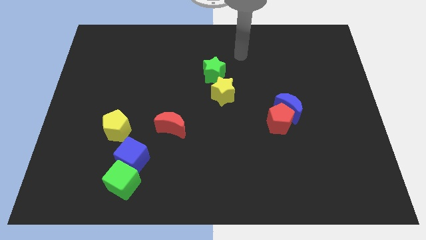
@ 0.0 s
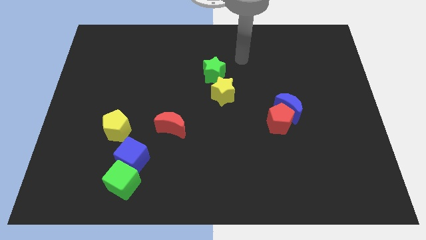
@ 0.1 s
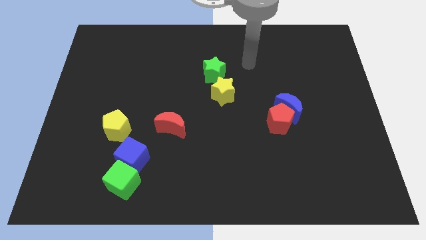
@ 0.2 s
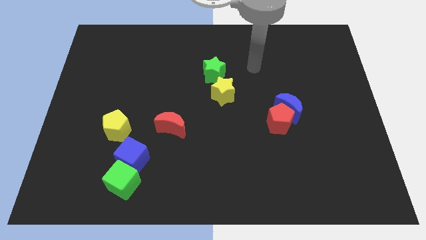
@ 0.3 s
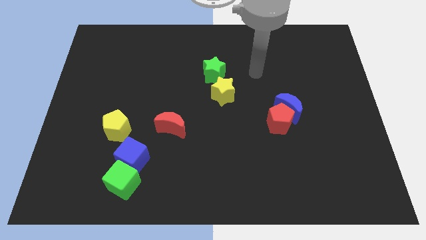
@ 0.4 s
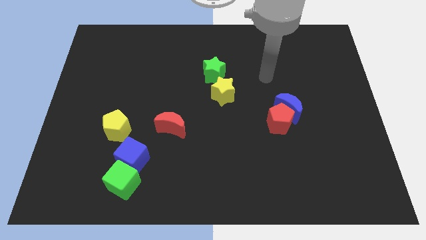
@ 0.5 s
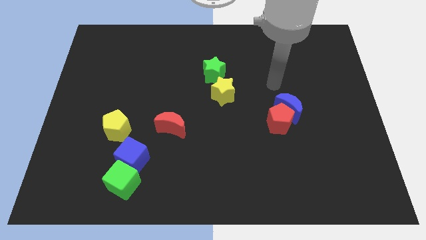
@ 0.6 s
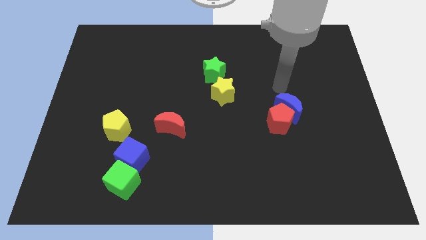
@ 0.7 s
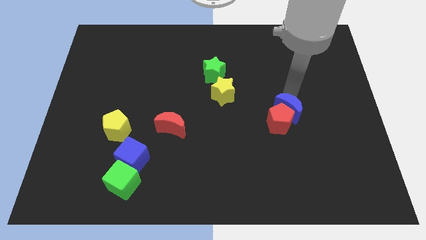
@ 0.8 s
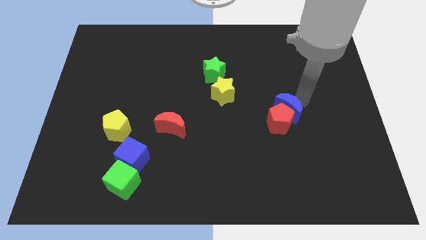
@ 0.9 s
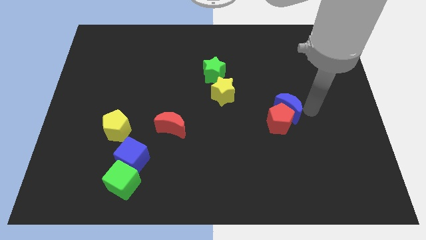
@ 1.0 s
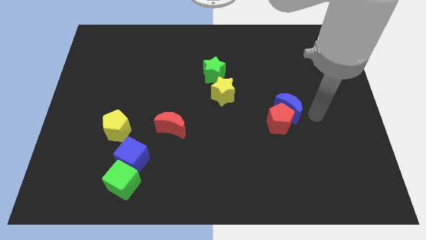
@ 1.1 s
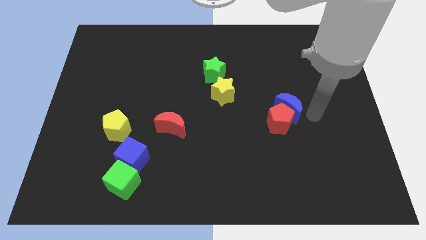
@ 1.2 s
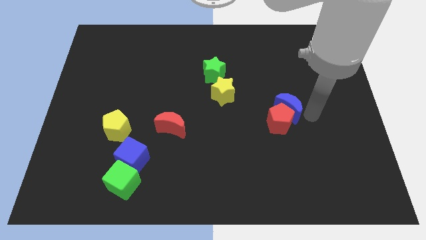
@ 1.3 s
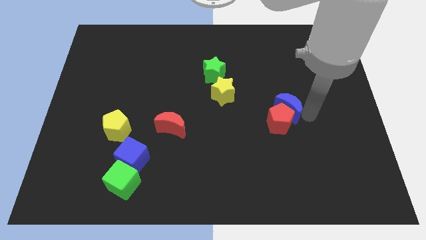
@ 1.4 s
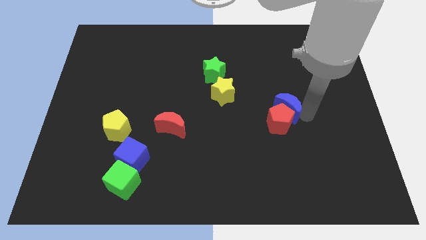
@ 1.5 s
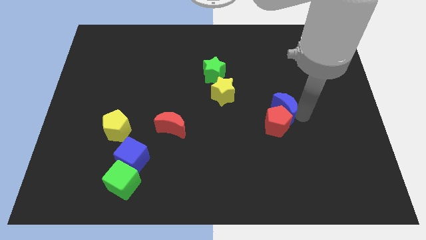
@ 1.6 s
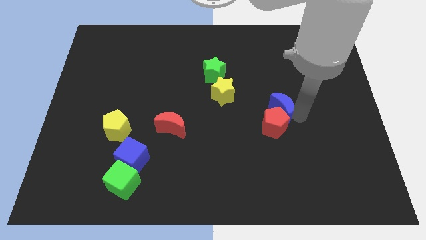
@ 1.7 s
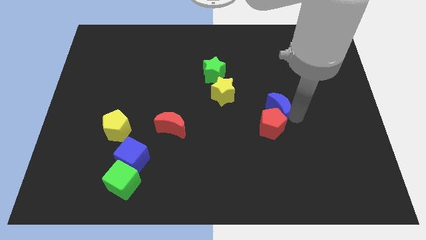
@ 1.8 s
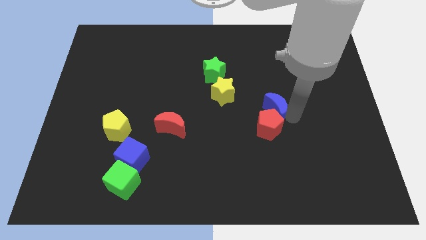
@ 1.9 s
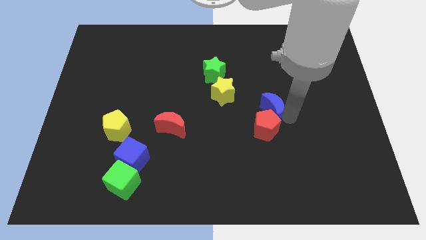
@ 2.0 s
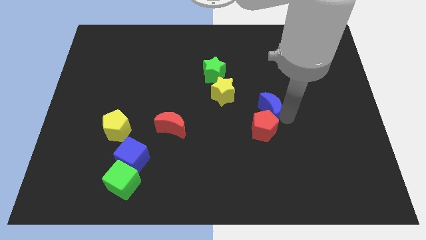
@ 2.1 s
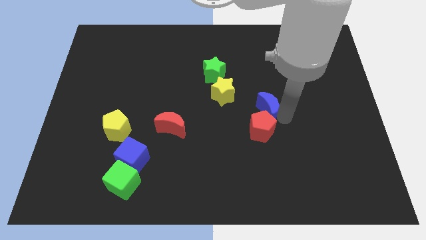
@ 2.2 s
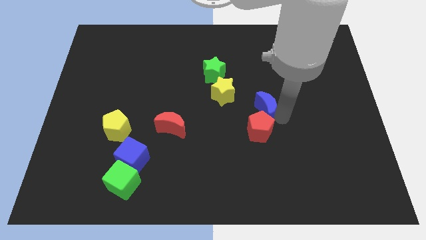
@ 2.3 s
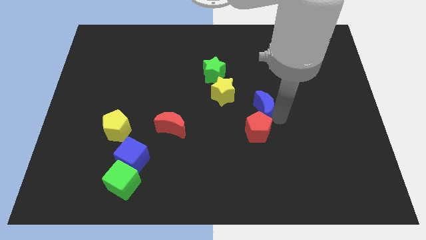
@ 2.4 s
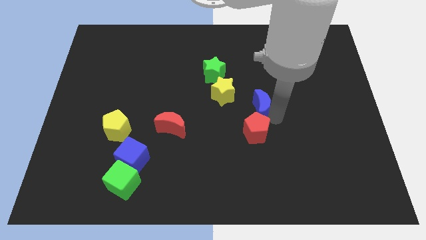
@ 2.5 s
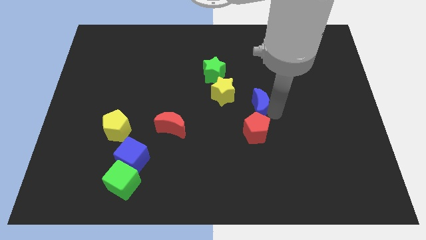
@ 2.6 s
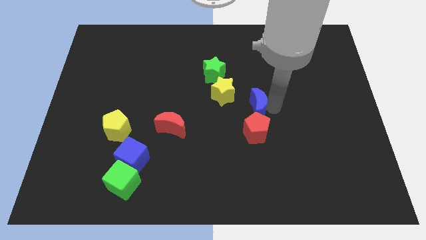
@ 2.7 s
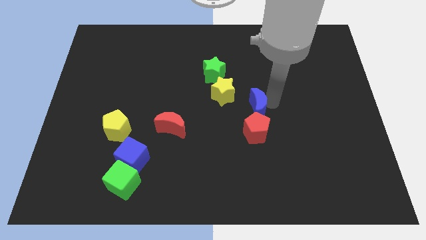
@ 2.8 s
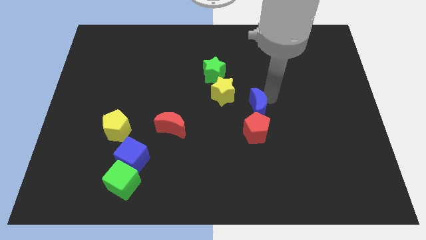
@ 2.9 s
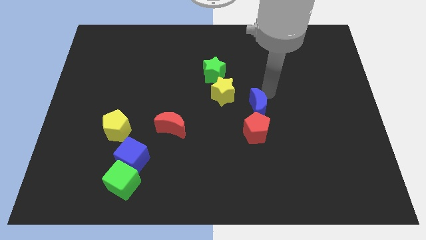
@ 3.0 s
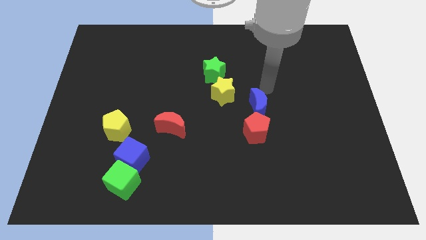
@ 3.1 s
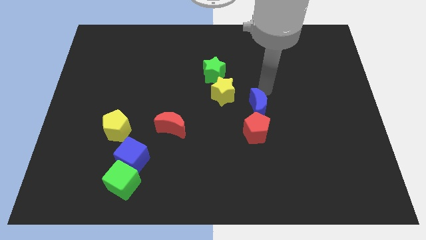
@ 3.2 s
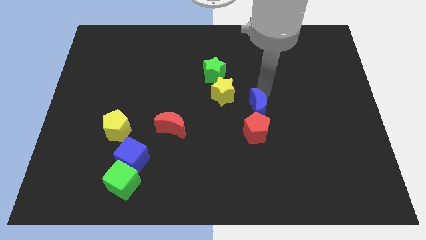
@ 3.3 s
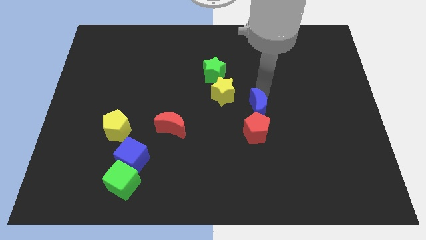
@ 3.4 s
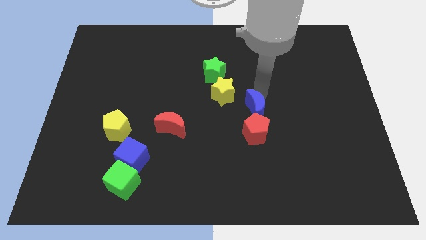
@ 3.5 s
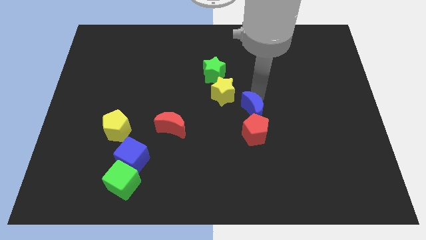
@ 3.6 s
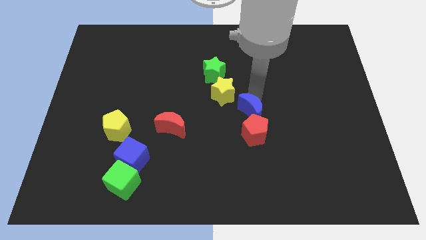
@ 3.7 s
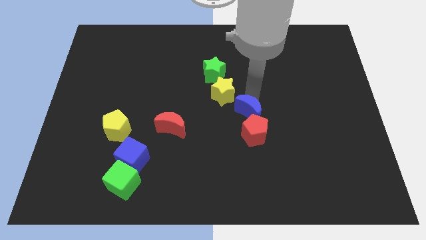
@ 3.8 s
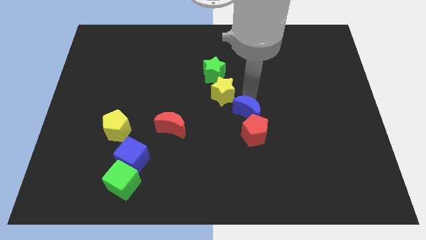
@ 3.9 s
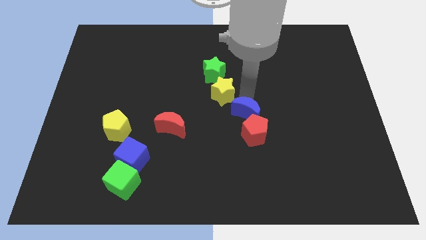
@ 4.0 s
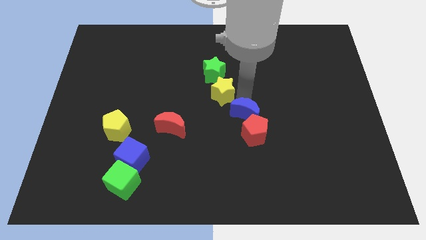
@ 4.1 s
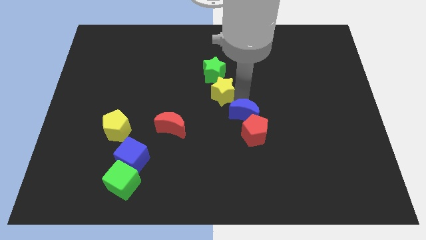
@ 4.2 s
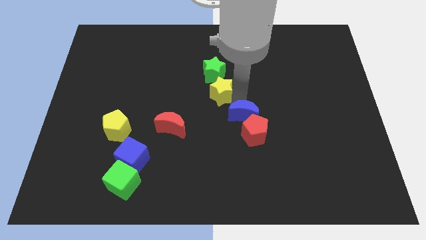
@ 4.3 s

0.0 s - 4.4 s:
slightly move the blue moon downwards and then left

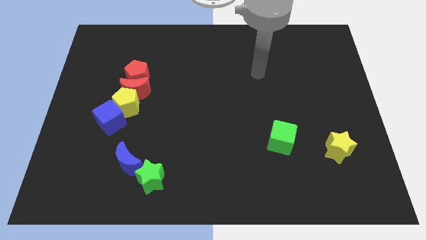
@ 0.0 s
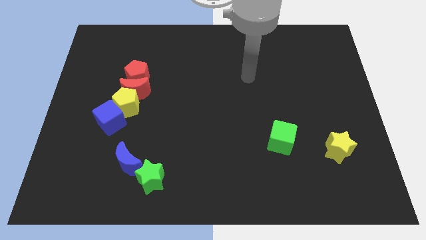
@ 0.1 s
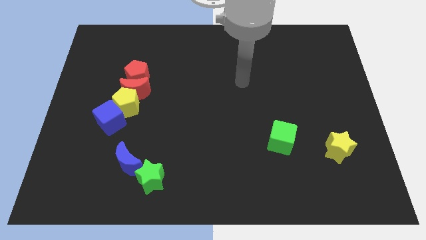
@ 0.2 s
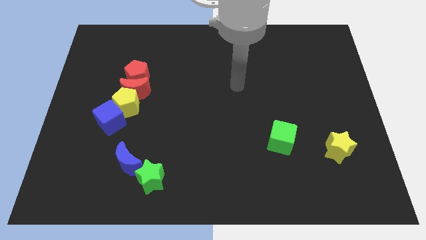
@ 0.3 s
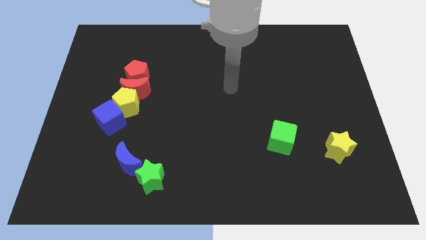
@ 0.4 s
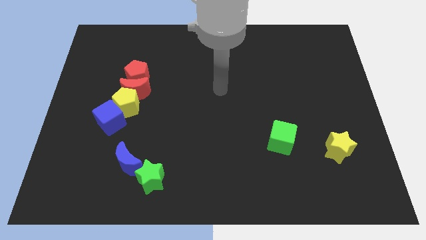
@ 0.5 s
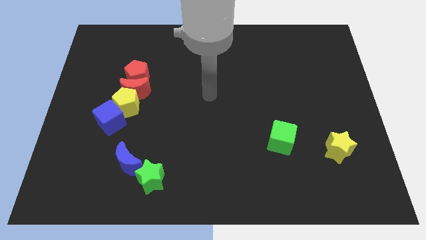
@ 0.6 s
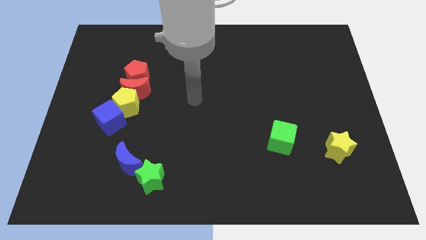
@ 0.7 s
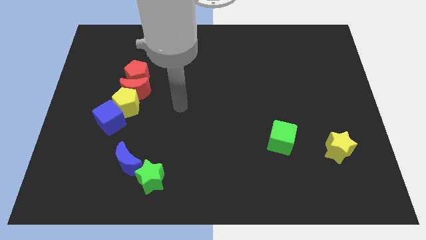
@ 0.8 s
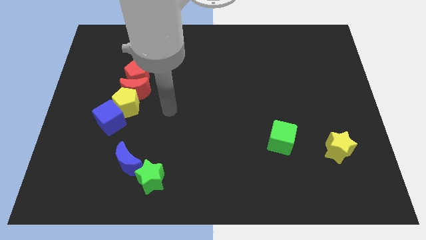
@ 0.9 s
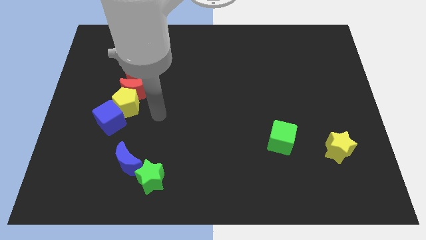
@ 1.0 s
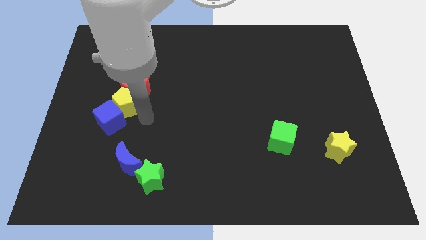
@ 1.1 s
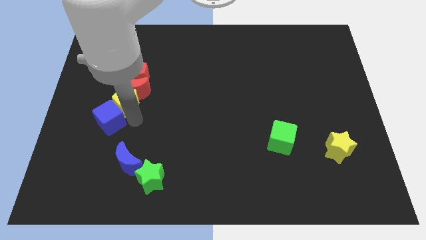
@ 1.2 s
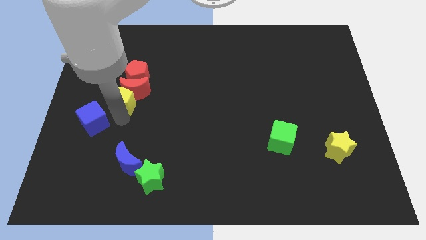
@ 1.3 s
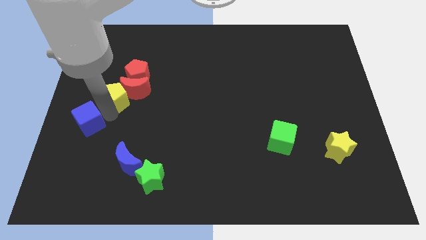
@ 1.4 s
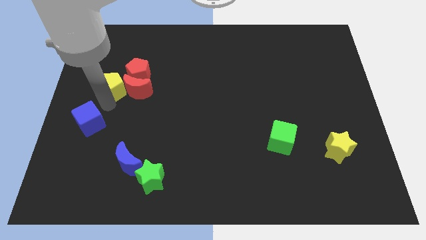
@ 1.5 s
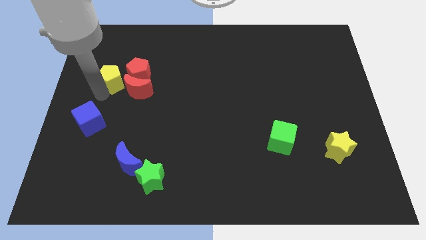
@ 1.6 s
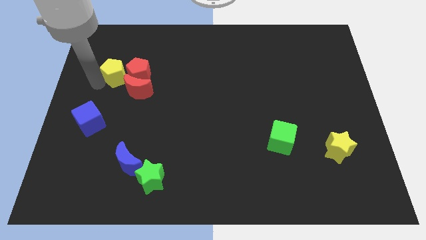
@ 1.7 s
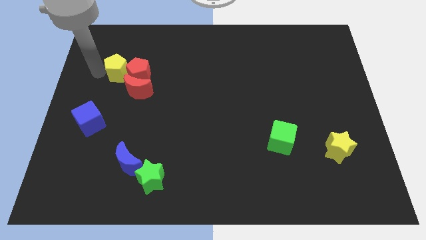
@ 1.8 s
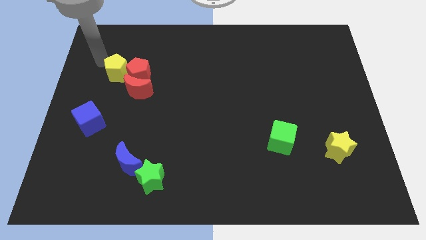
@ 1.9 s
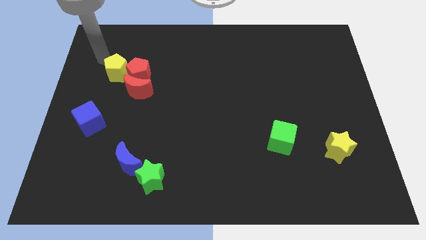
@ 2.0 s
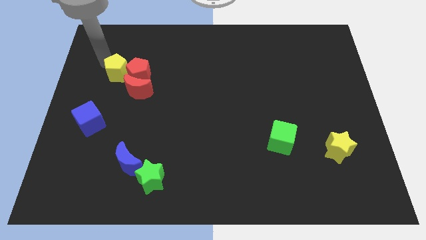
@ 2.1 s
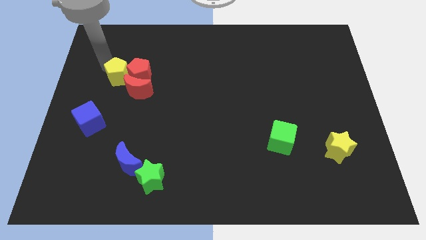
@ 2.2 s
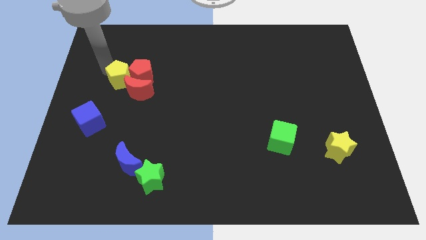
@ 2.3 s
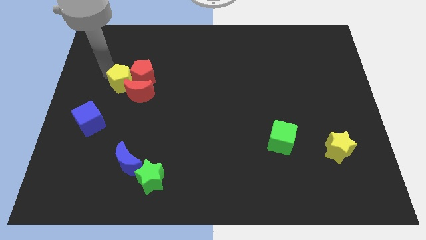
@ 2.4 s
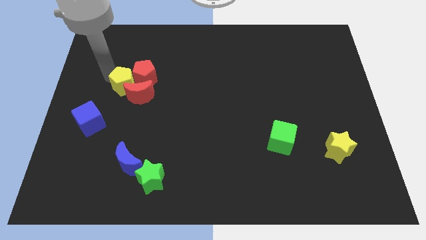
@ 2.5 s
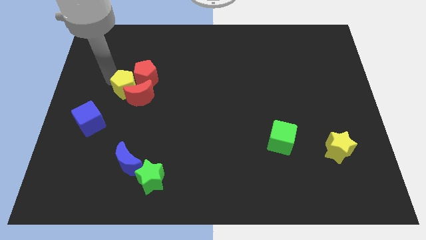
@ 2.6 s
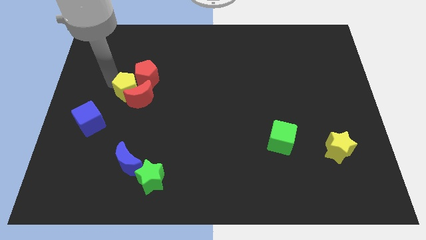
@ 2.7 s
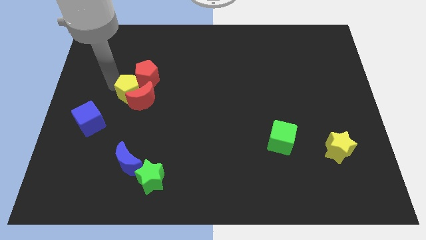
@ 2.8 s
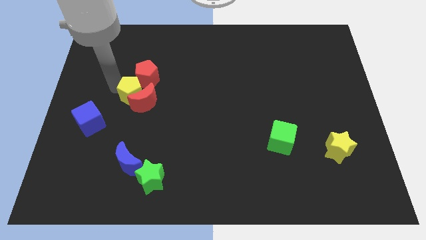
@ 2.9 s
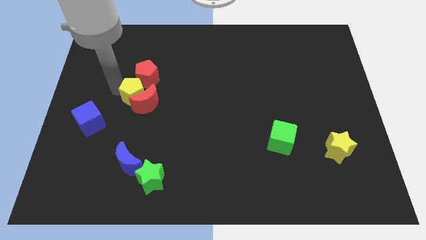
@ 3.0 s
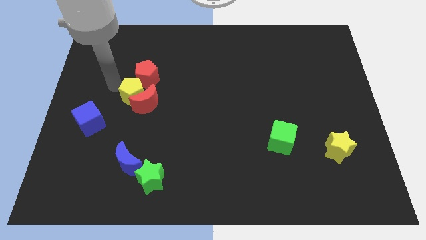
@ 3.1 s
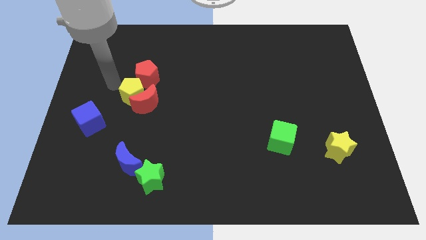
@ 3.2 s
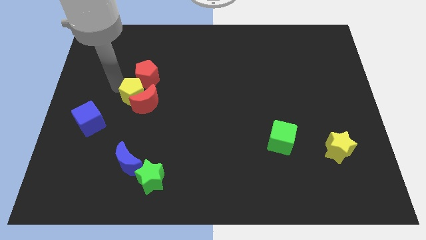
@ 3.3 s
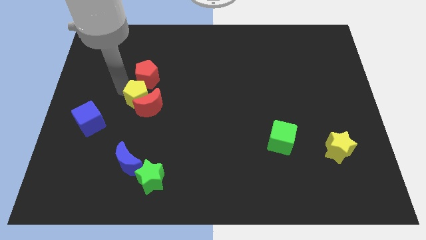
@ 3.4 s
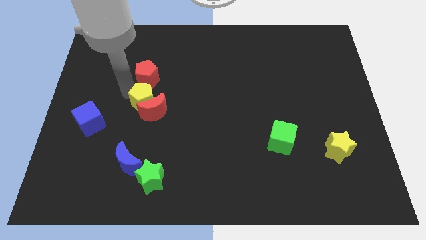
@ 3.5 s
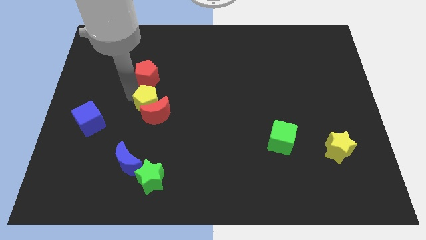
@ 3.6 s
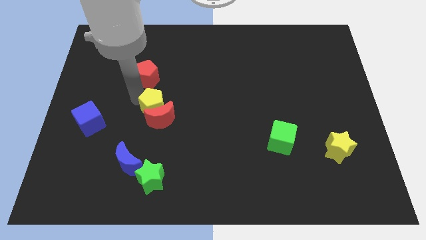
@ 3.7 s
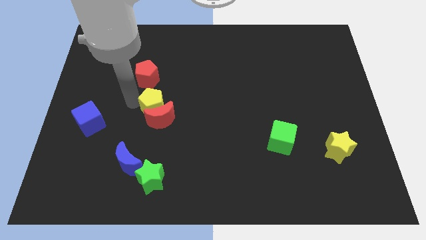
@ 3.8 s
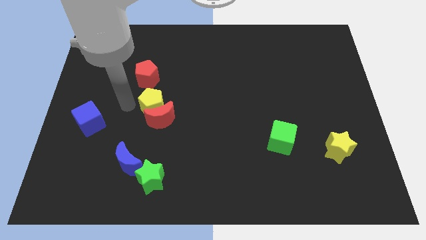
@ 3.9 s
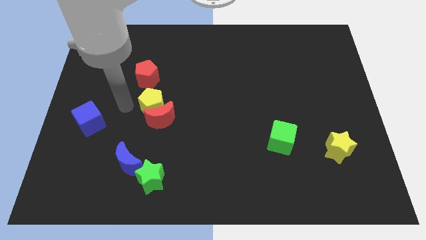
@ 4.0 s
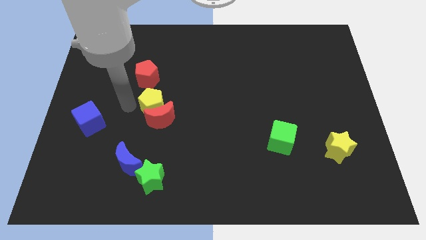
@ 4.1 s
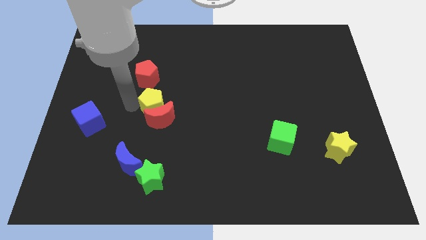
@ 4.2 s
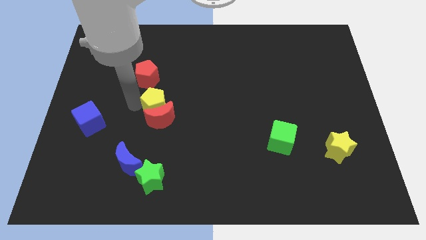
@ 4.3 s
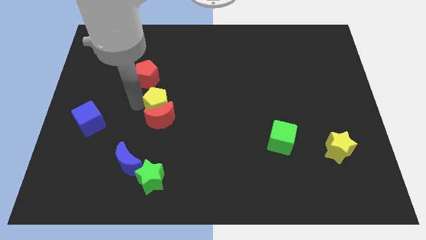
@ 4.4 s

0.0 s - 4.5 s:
push the yellow pentagon slightly right
